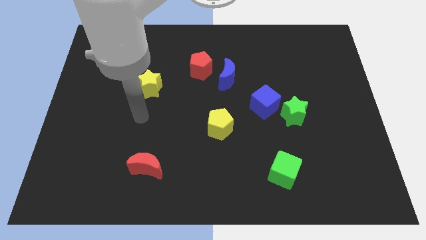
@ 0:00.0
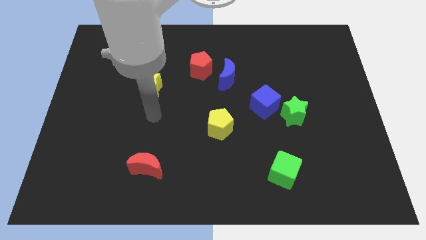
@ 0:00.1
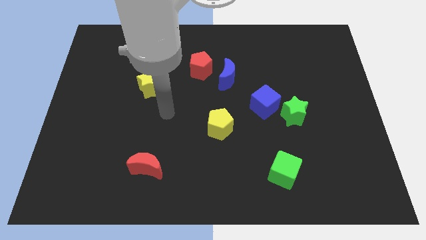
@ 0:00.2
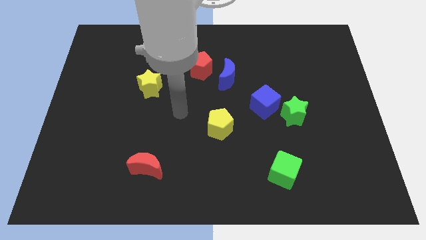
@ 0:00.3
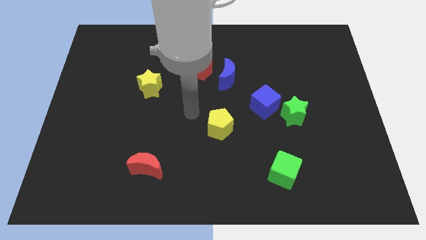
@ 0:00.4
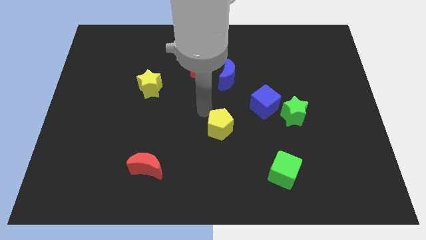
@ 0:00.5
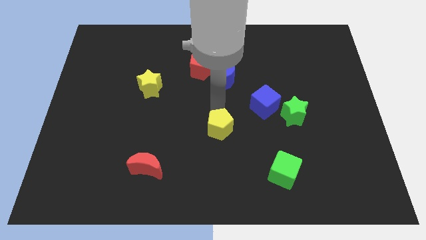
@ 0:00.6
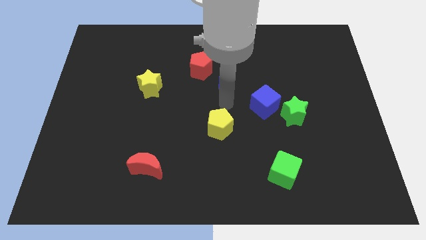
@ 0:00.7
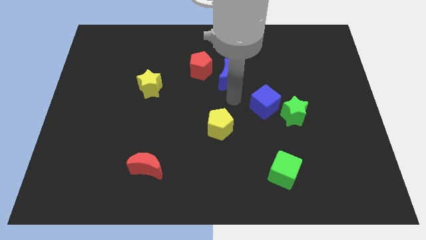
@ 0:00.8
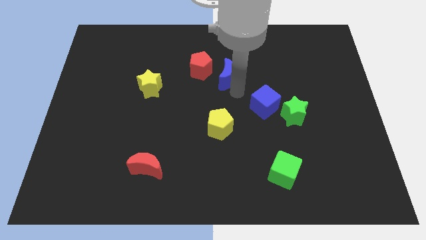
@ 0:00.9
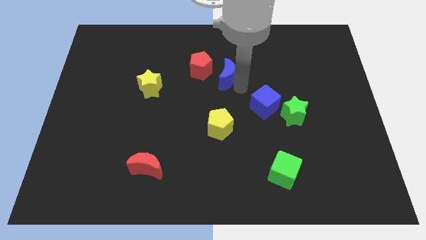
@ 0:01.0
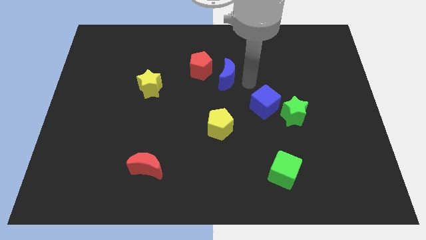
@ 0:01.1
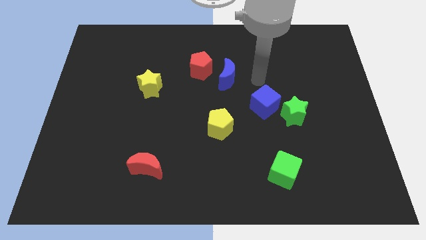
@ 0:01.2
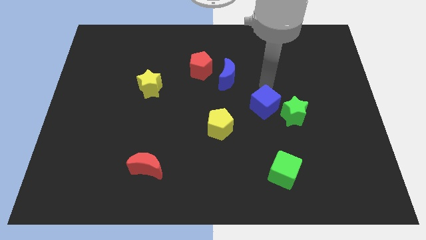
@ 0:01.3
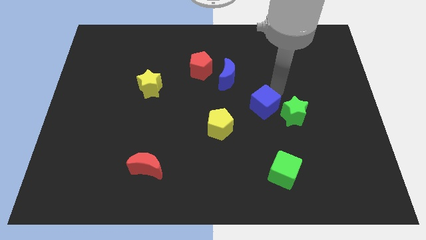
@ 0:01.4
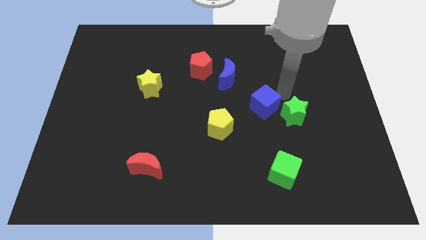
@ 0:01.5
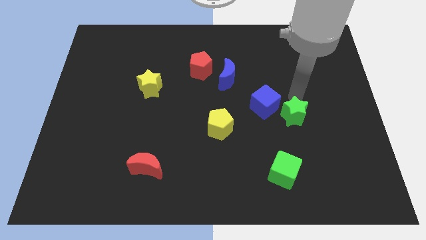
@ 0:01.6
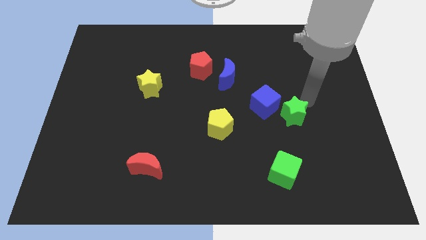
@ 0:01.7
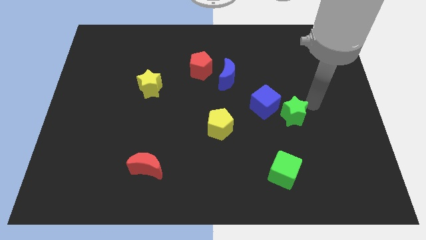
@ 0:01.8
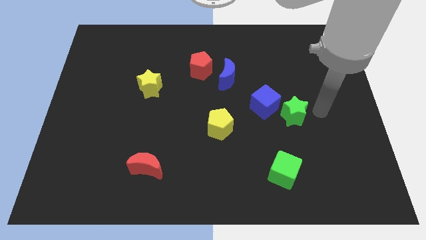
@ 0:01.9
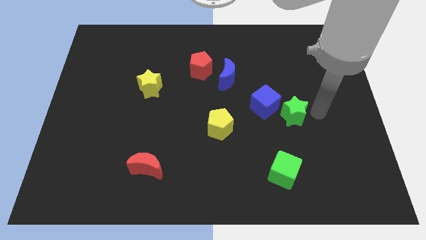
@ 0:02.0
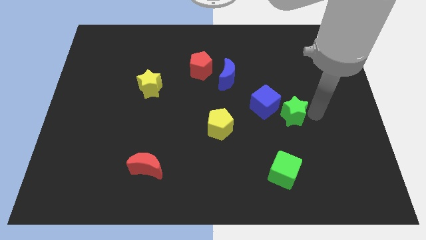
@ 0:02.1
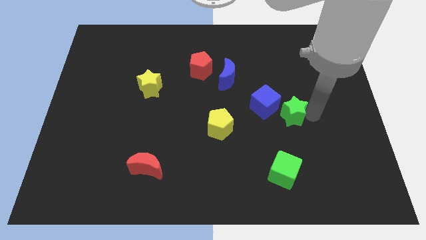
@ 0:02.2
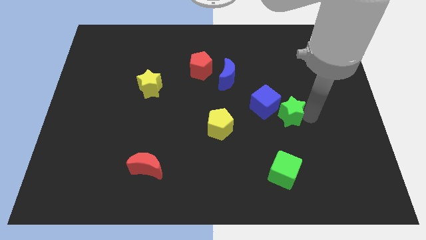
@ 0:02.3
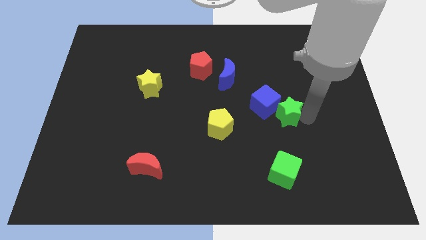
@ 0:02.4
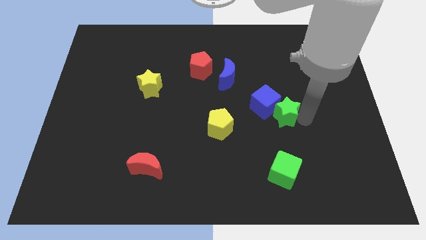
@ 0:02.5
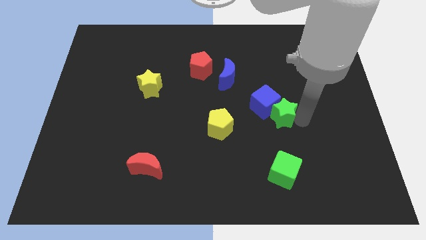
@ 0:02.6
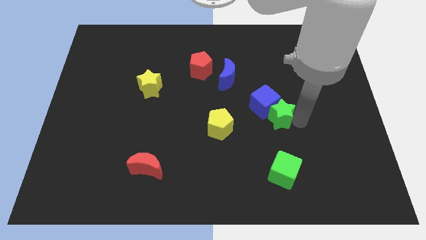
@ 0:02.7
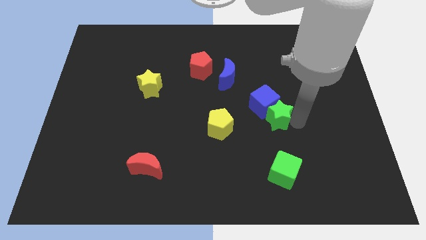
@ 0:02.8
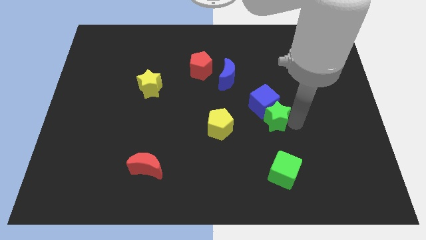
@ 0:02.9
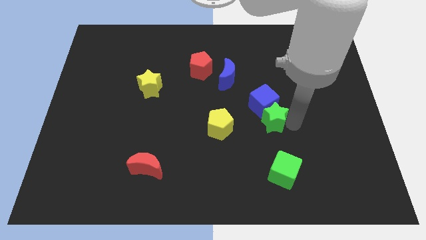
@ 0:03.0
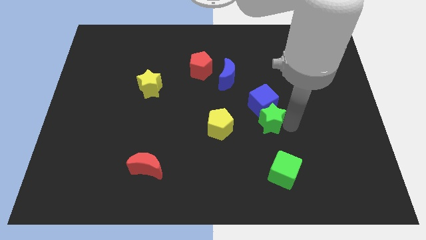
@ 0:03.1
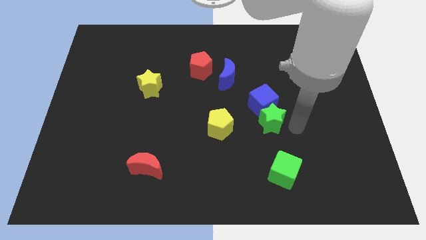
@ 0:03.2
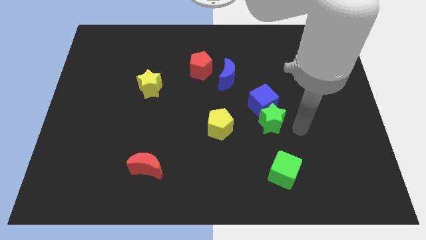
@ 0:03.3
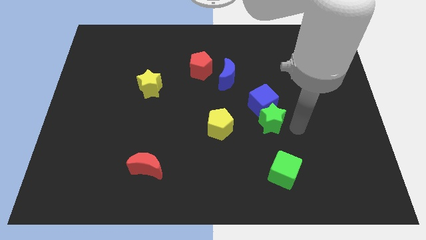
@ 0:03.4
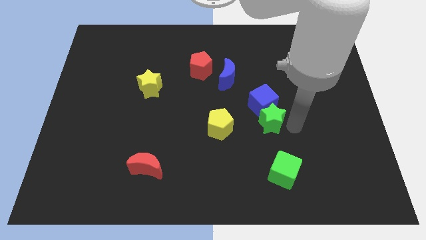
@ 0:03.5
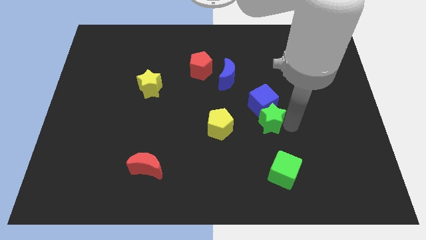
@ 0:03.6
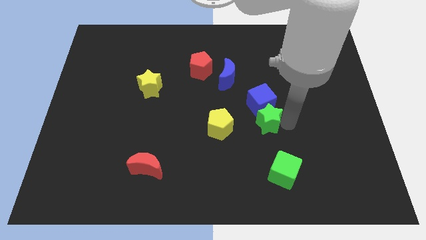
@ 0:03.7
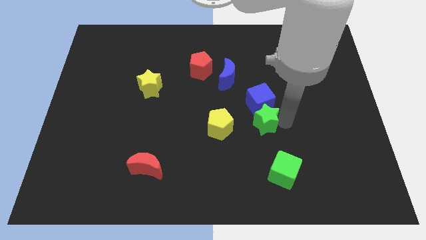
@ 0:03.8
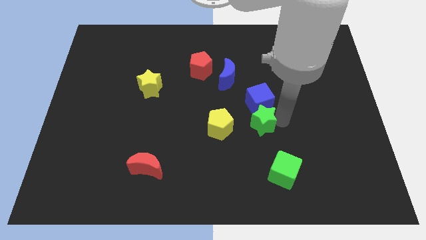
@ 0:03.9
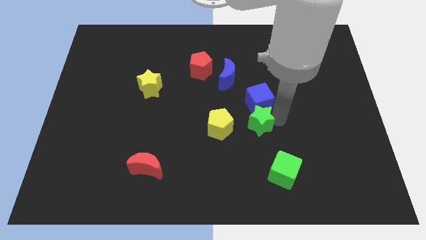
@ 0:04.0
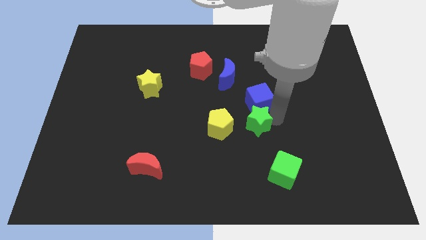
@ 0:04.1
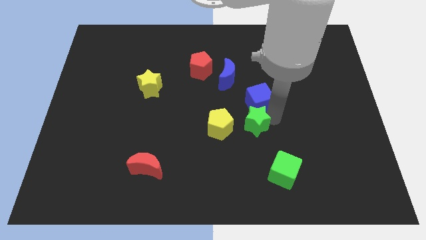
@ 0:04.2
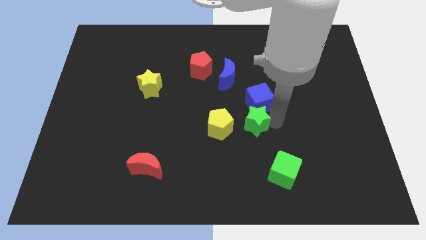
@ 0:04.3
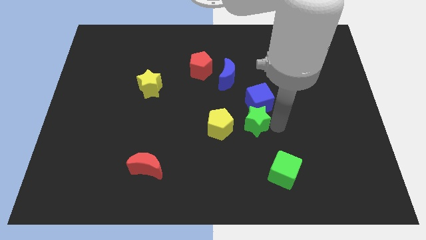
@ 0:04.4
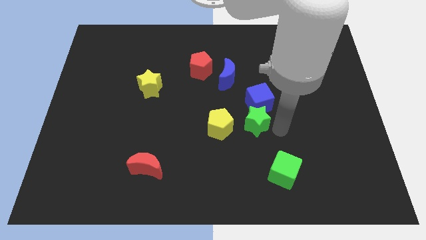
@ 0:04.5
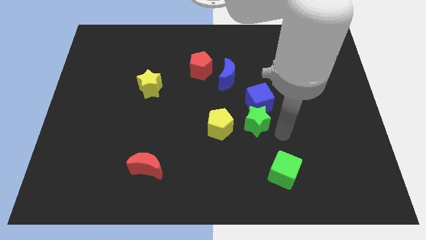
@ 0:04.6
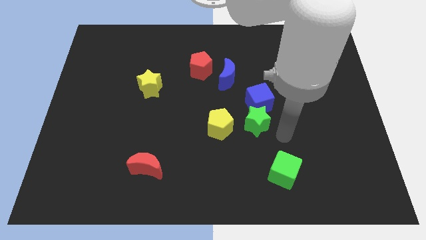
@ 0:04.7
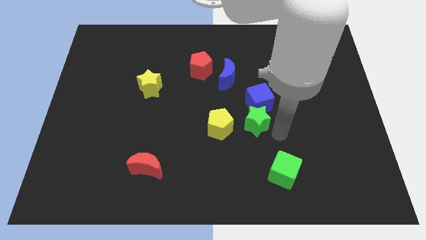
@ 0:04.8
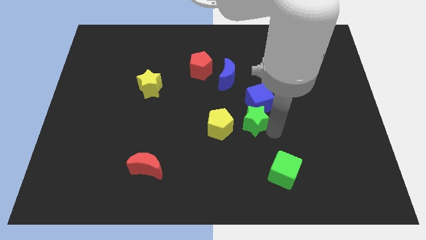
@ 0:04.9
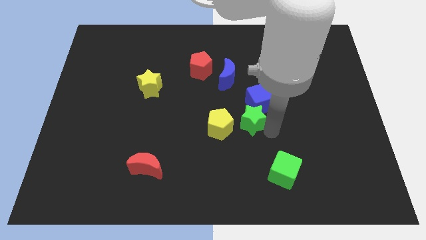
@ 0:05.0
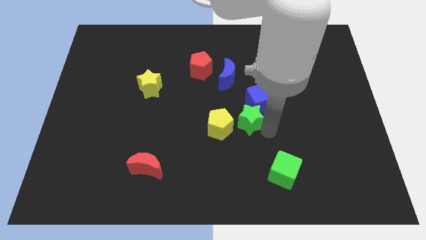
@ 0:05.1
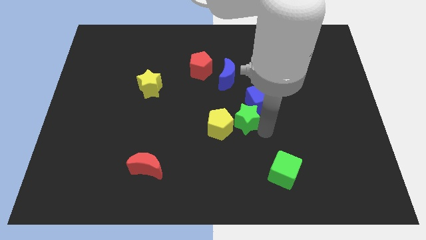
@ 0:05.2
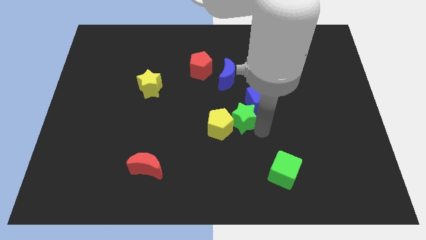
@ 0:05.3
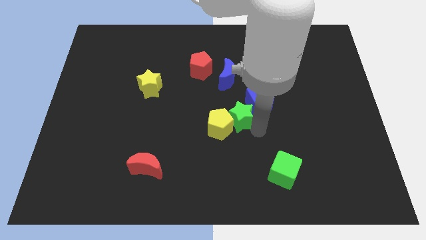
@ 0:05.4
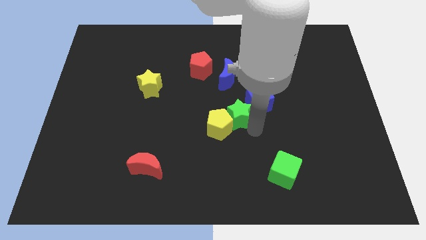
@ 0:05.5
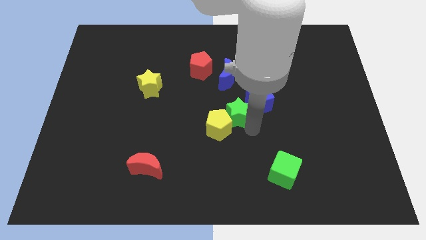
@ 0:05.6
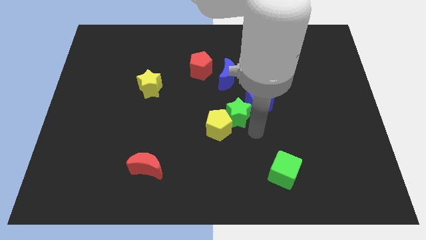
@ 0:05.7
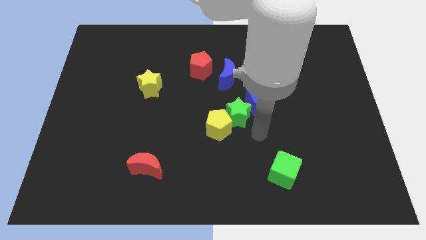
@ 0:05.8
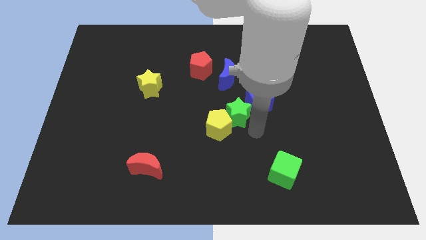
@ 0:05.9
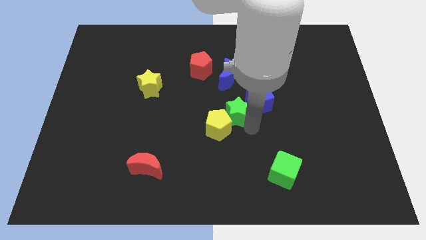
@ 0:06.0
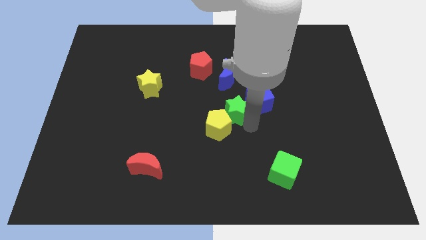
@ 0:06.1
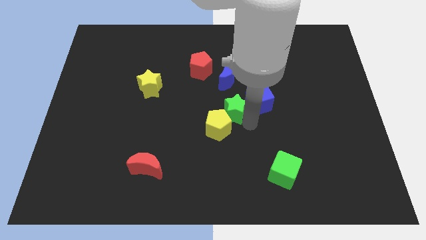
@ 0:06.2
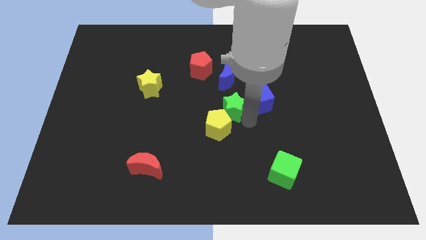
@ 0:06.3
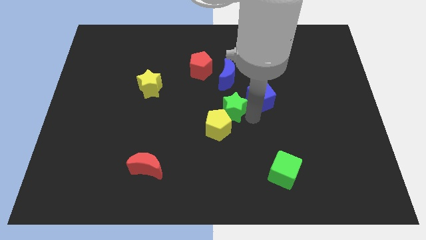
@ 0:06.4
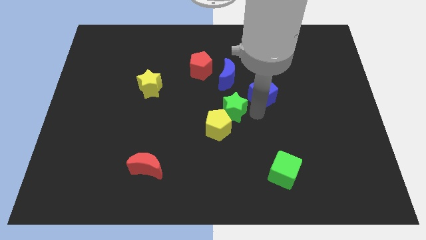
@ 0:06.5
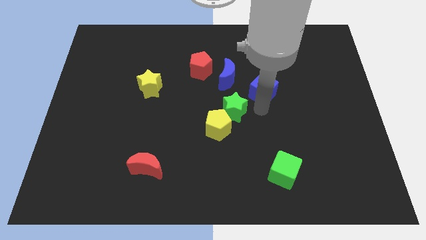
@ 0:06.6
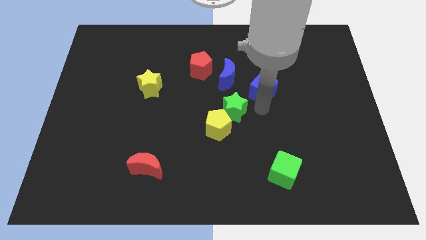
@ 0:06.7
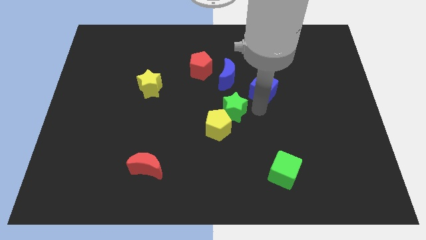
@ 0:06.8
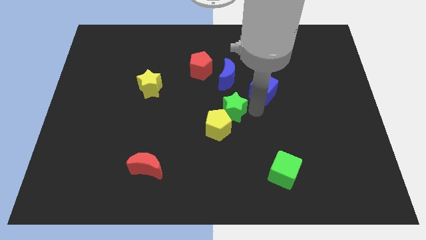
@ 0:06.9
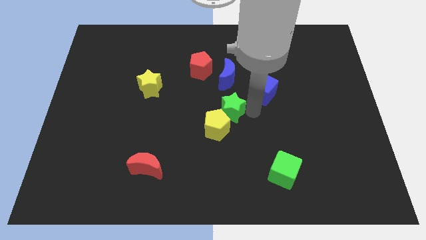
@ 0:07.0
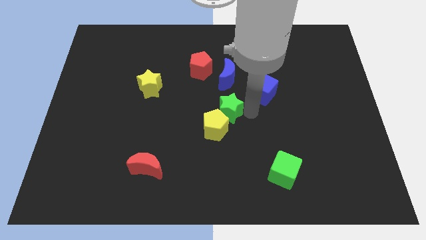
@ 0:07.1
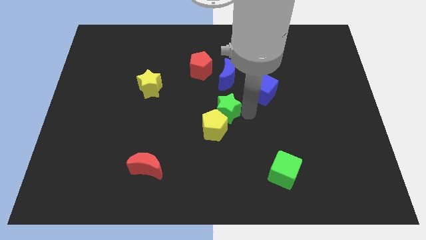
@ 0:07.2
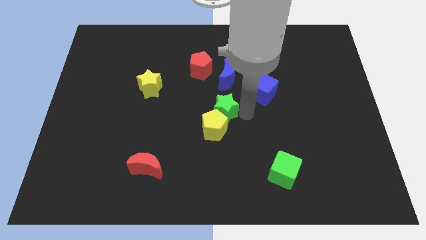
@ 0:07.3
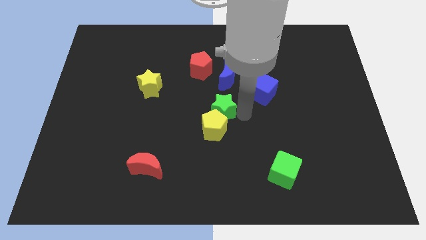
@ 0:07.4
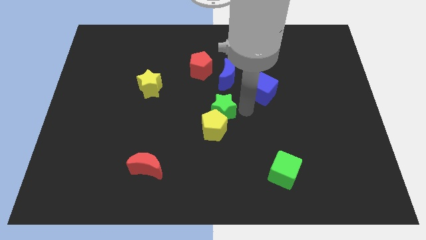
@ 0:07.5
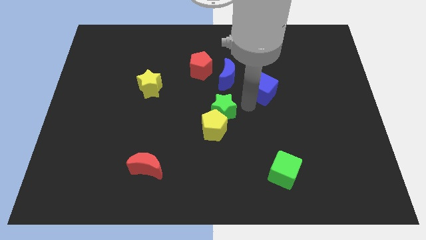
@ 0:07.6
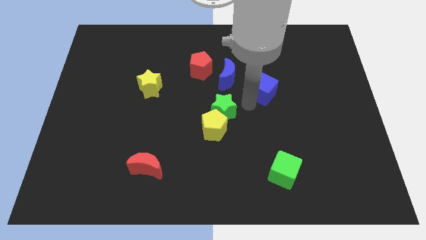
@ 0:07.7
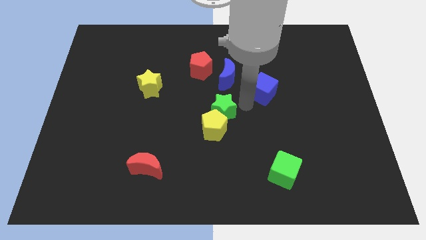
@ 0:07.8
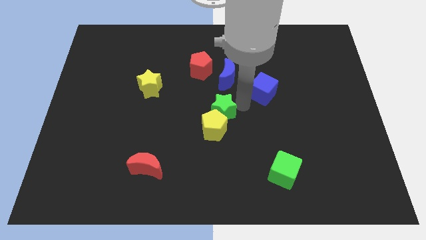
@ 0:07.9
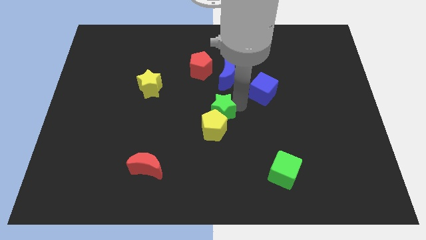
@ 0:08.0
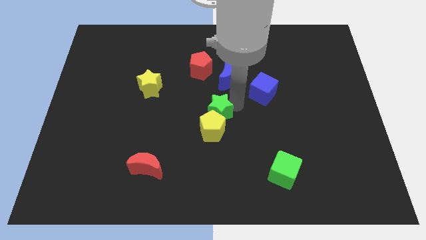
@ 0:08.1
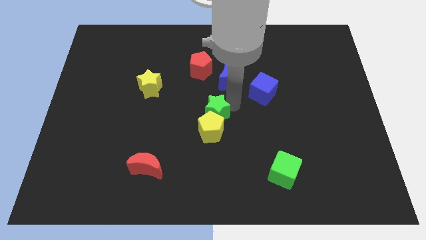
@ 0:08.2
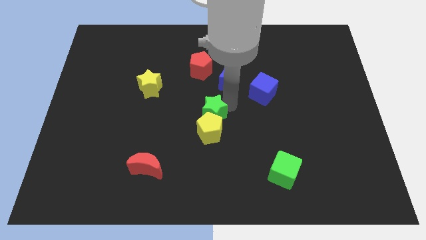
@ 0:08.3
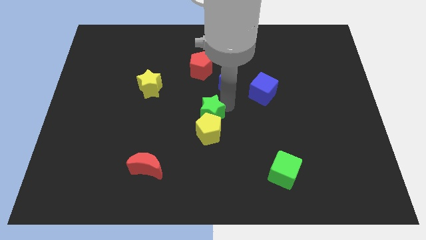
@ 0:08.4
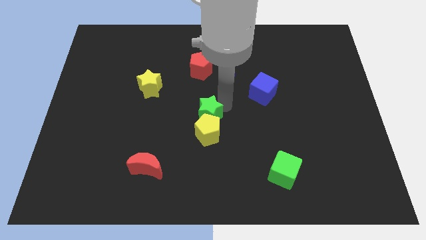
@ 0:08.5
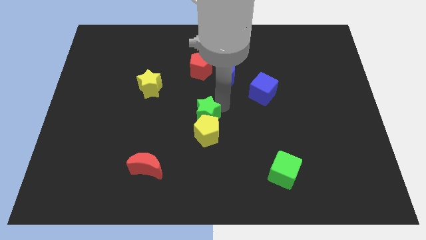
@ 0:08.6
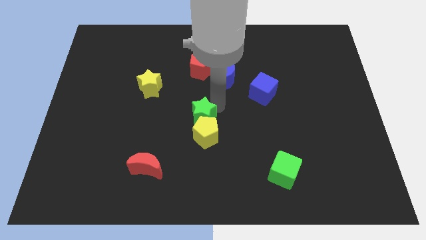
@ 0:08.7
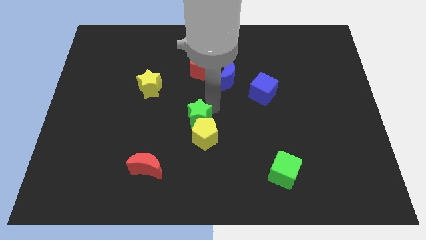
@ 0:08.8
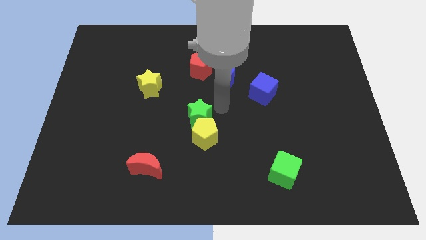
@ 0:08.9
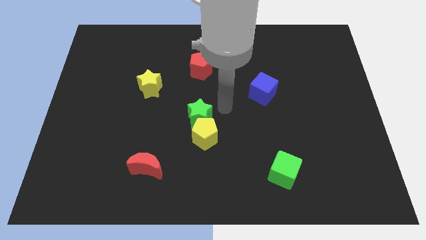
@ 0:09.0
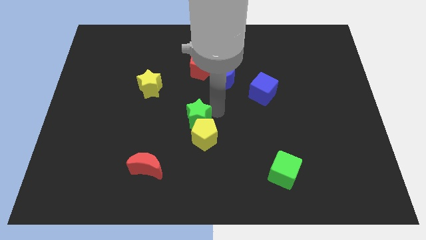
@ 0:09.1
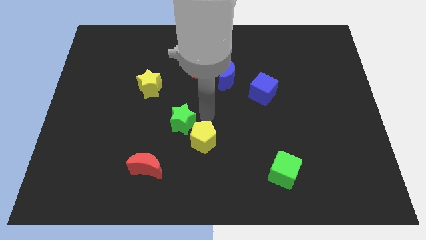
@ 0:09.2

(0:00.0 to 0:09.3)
put the green star left of the yellow pentagon
